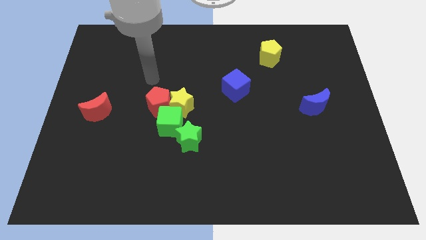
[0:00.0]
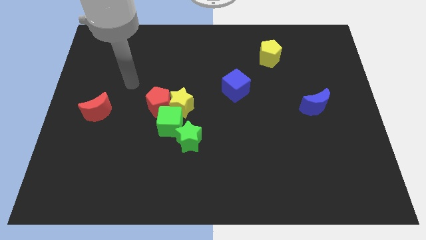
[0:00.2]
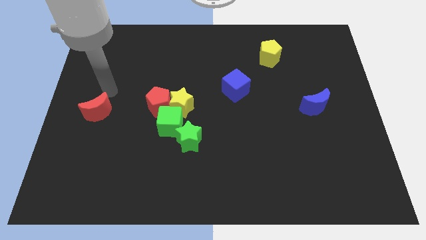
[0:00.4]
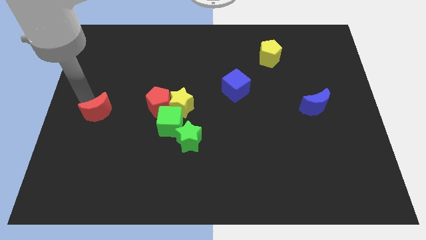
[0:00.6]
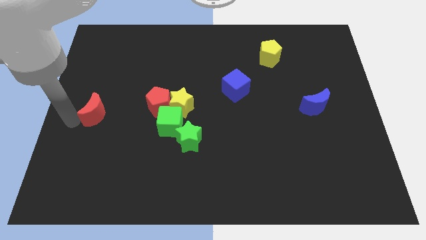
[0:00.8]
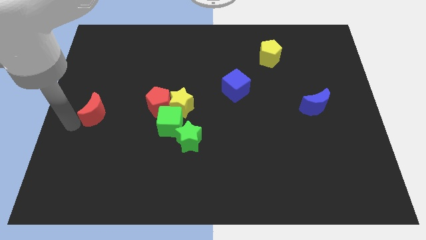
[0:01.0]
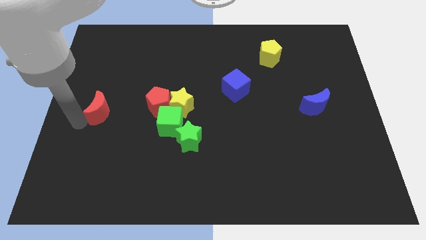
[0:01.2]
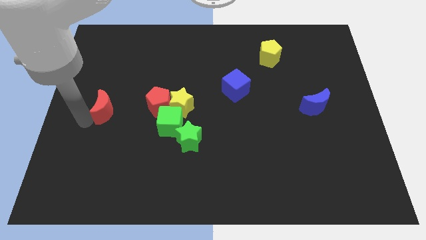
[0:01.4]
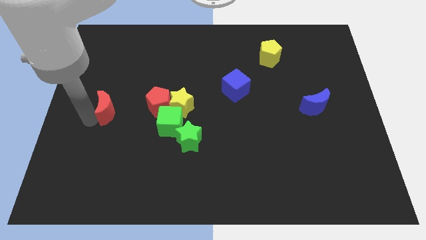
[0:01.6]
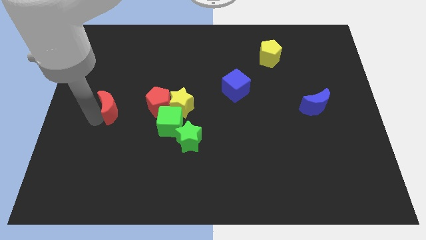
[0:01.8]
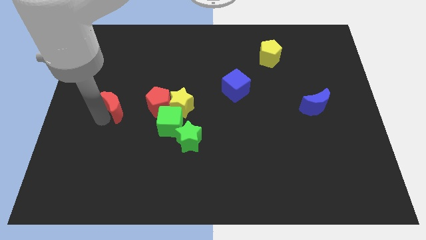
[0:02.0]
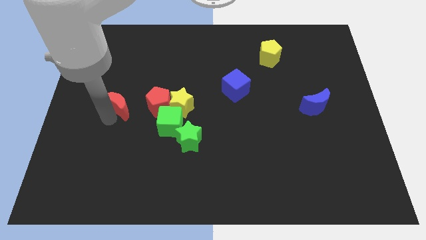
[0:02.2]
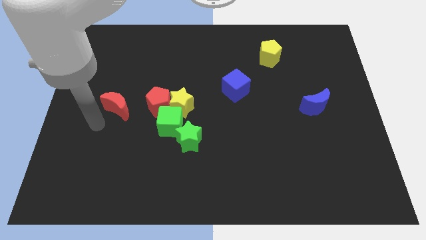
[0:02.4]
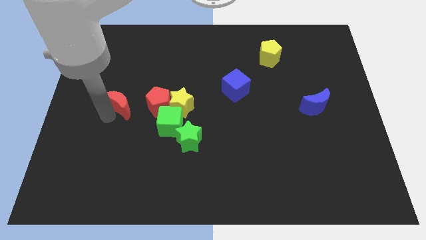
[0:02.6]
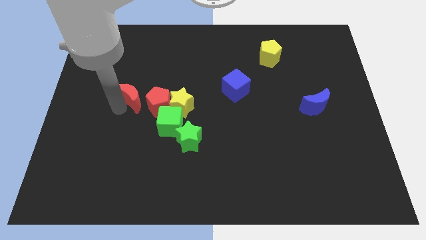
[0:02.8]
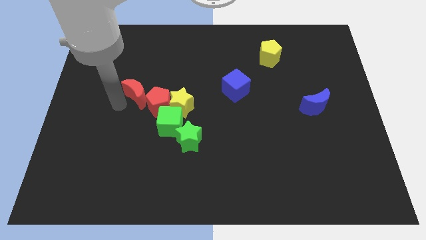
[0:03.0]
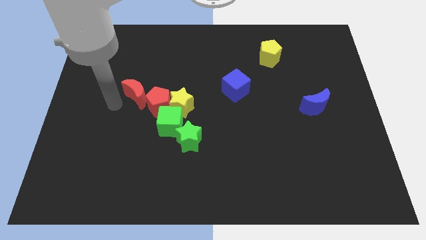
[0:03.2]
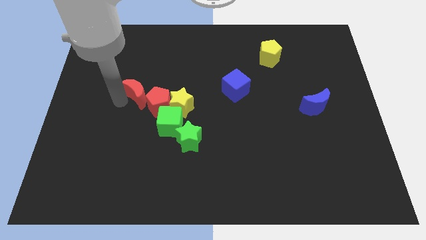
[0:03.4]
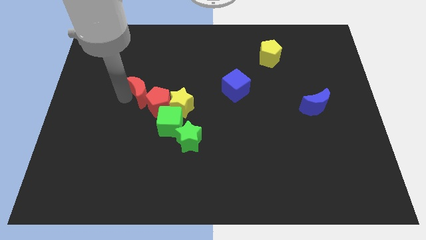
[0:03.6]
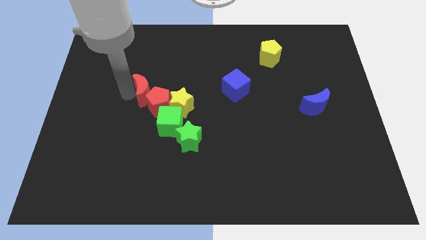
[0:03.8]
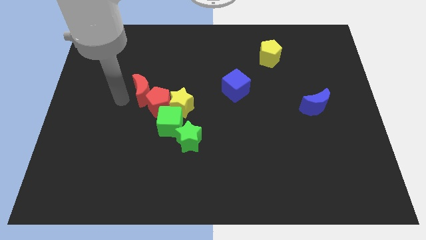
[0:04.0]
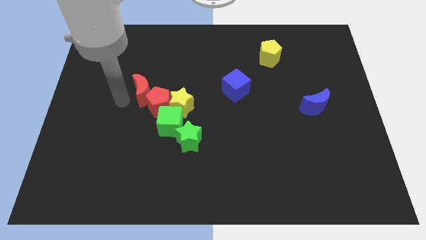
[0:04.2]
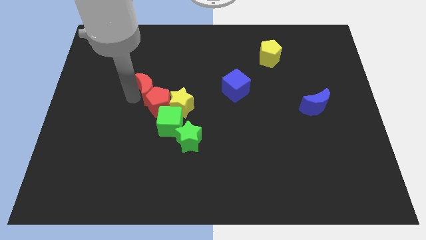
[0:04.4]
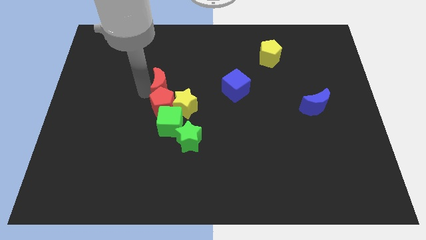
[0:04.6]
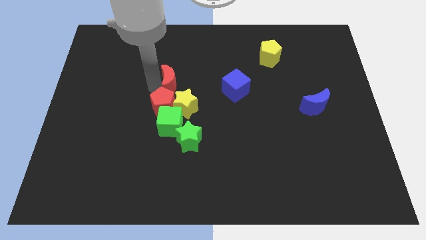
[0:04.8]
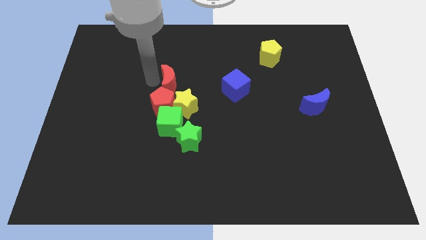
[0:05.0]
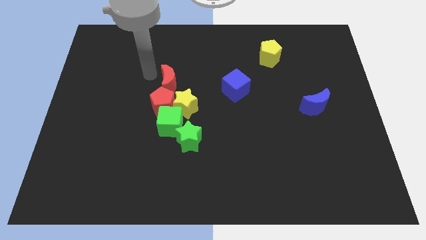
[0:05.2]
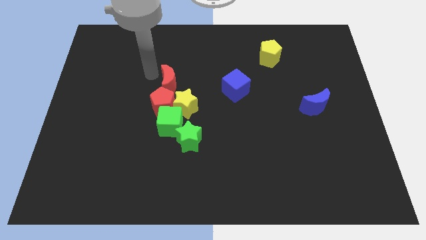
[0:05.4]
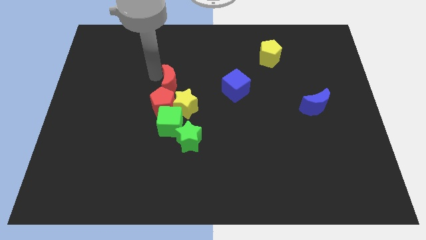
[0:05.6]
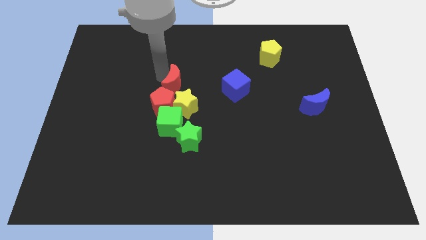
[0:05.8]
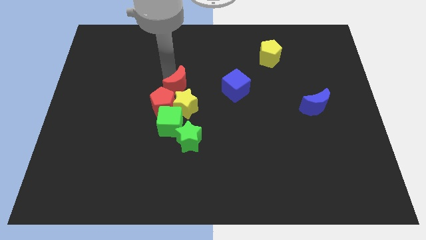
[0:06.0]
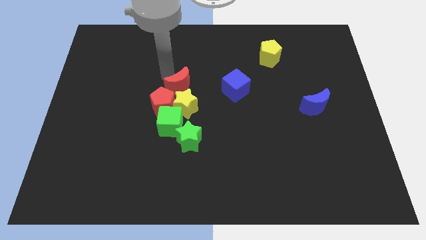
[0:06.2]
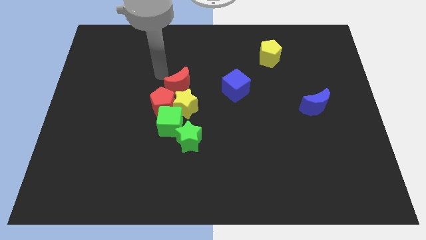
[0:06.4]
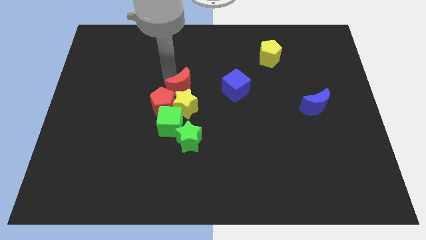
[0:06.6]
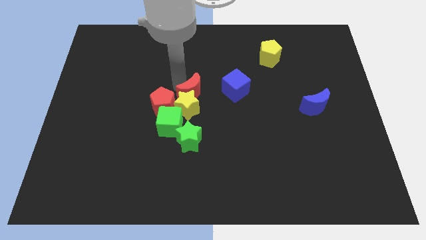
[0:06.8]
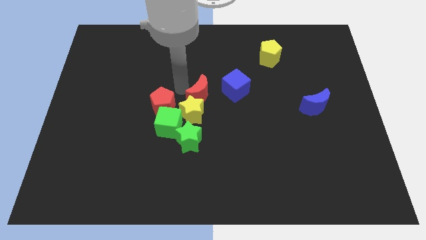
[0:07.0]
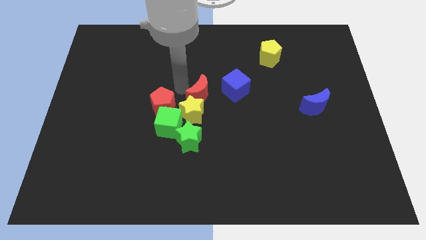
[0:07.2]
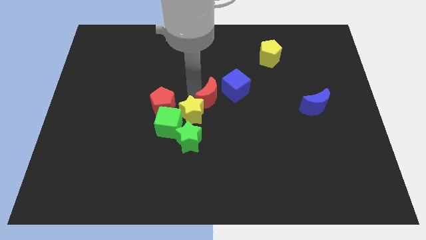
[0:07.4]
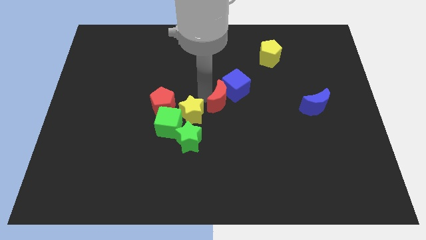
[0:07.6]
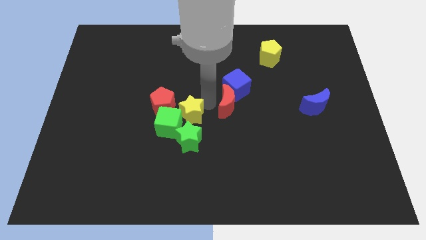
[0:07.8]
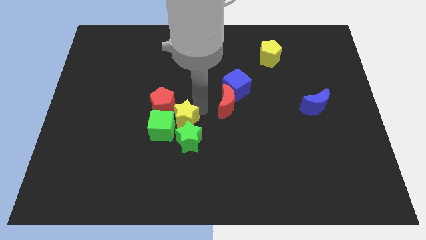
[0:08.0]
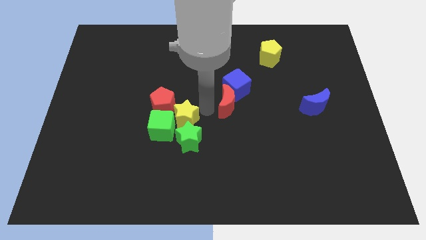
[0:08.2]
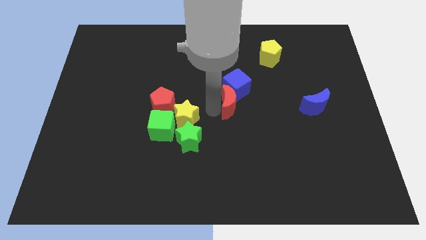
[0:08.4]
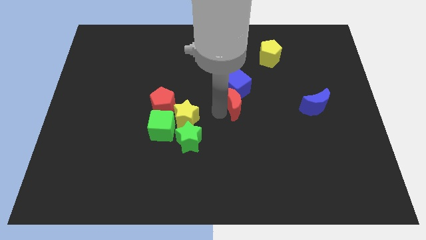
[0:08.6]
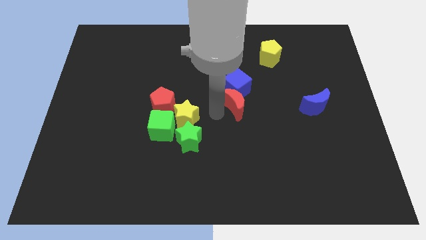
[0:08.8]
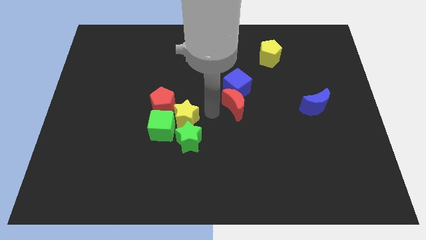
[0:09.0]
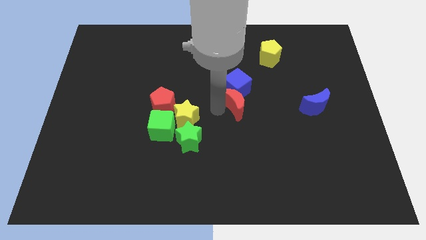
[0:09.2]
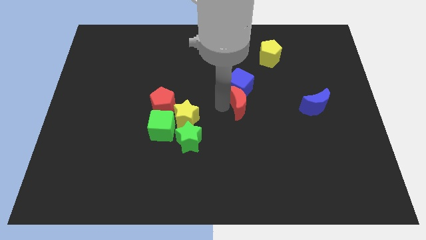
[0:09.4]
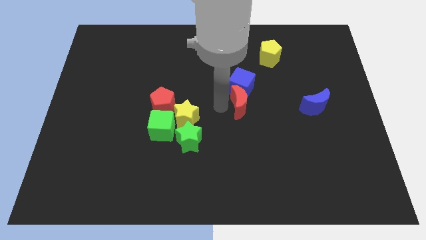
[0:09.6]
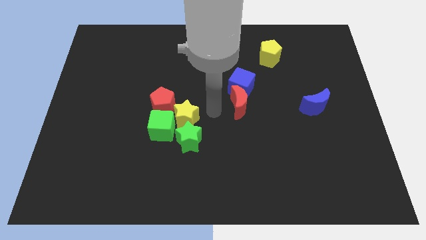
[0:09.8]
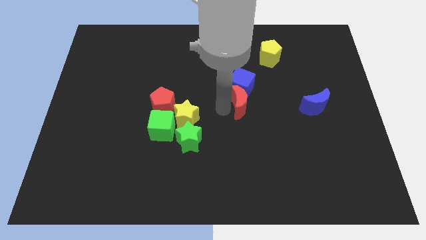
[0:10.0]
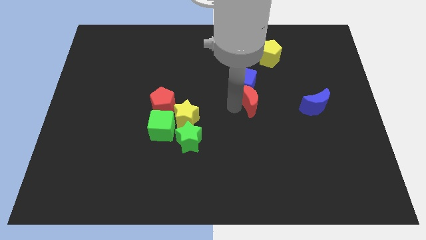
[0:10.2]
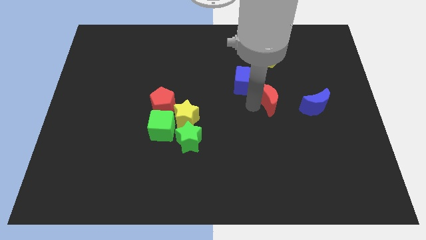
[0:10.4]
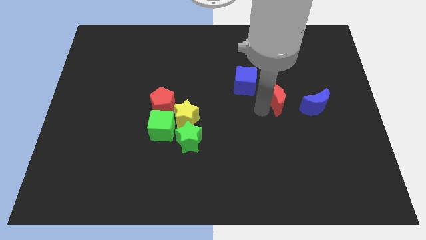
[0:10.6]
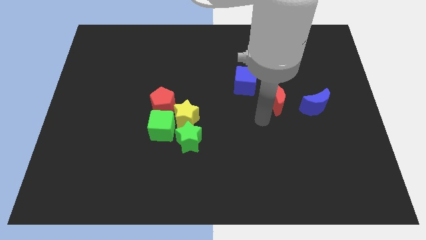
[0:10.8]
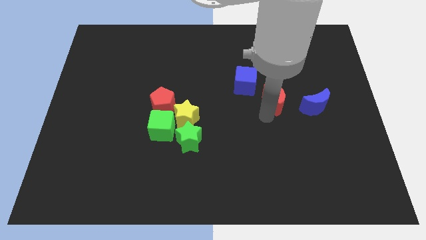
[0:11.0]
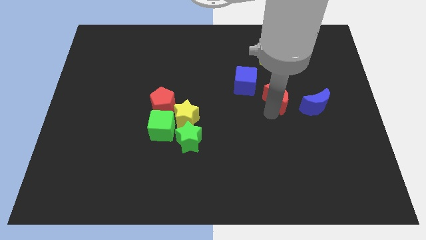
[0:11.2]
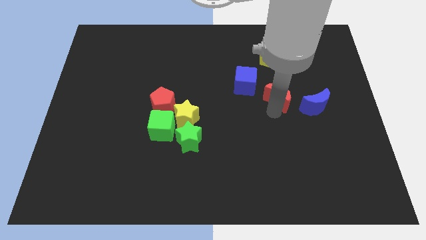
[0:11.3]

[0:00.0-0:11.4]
move the red moon just right of the blue cube

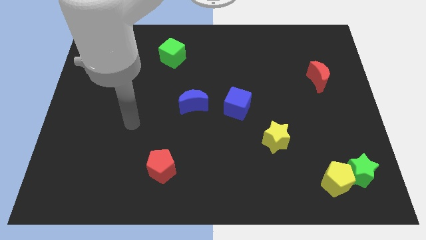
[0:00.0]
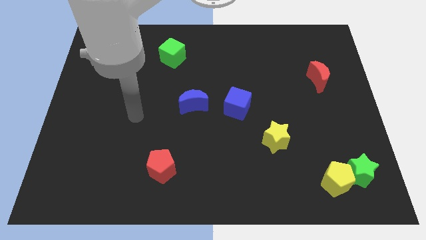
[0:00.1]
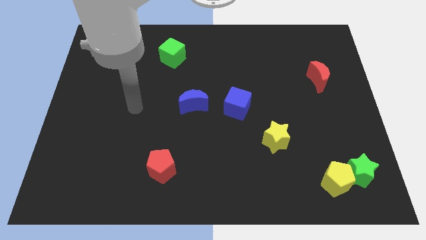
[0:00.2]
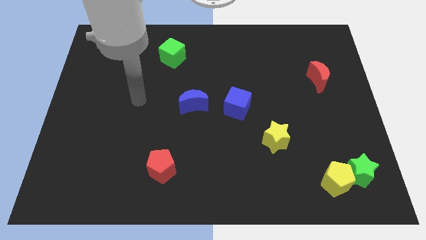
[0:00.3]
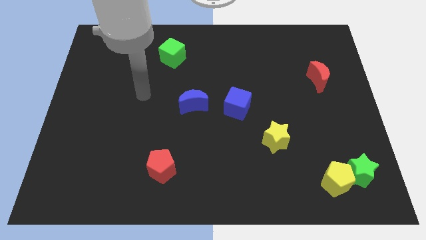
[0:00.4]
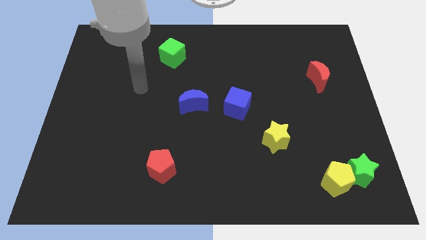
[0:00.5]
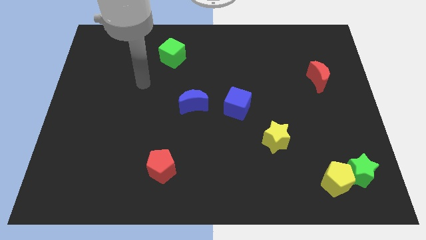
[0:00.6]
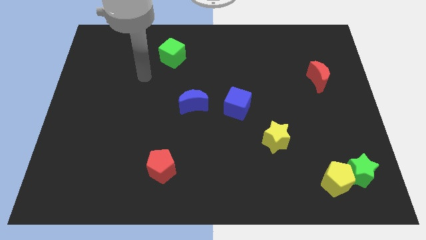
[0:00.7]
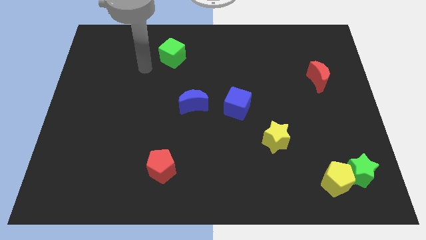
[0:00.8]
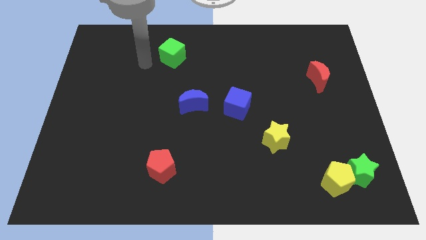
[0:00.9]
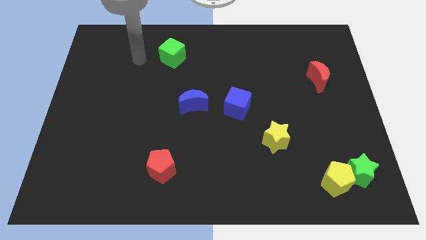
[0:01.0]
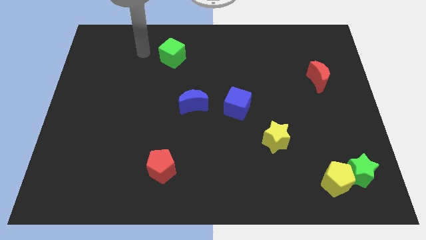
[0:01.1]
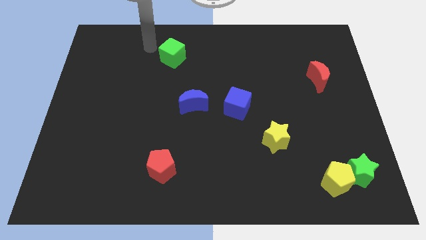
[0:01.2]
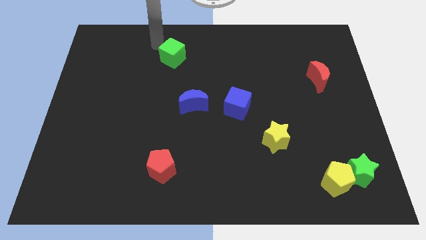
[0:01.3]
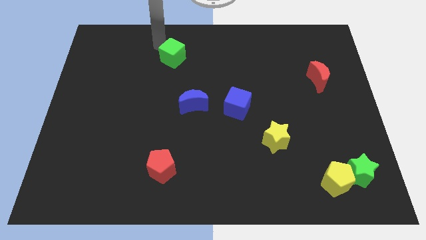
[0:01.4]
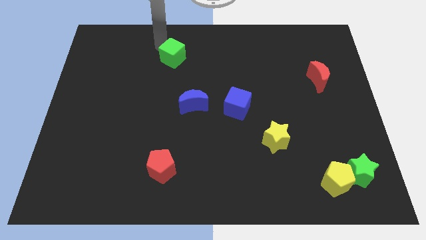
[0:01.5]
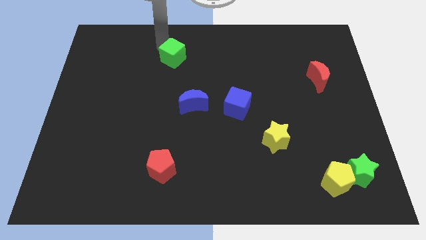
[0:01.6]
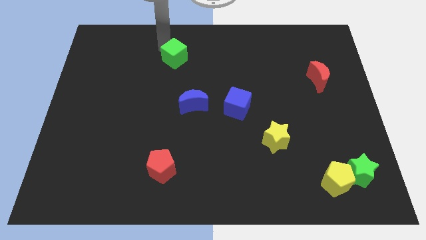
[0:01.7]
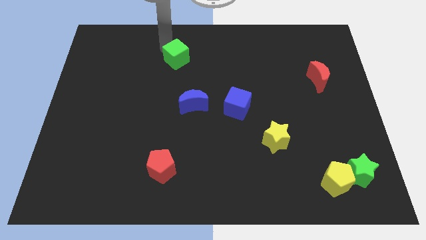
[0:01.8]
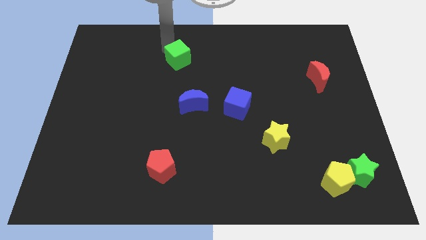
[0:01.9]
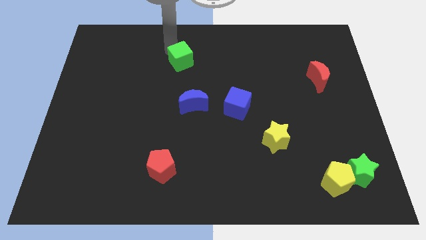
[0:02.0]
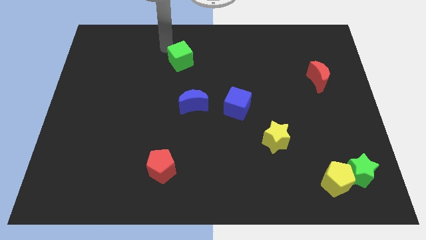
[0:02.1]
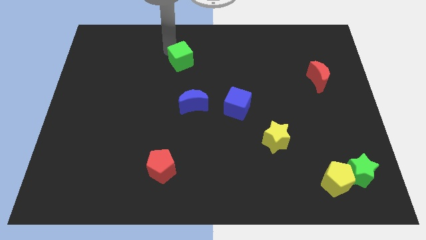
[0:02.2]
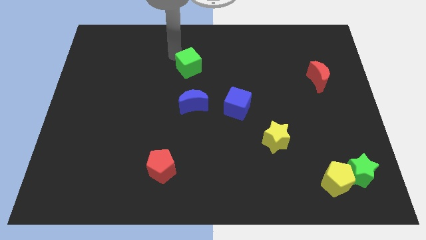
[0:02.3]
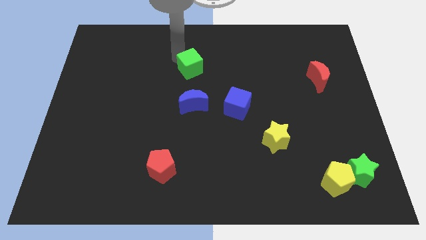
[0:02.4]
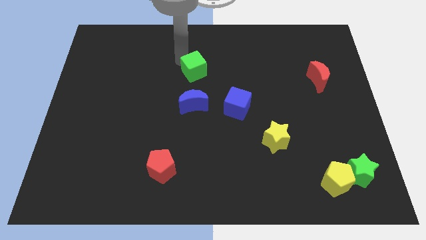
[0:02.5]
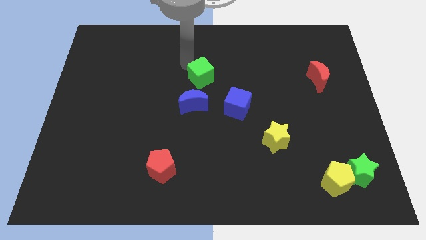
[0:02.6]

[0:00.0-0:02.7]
move the green cube to the top left side of the blue cube
